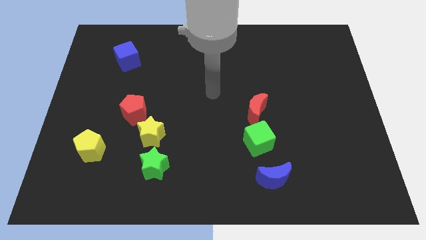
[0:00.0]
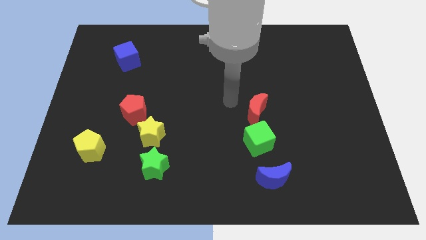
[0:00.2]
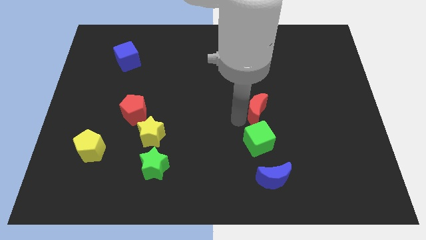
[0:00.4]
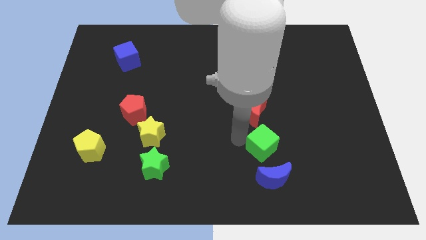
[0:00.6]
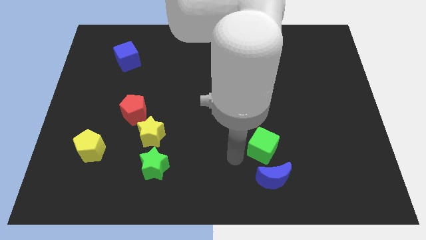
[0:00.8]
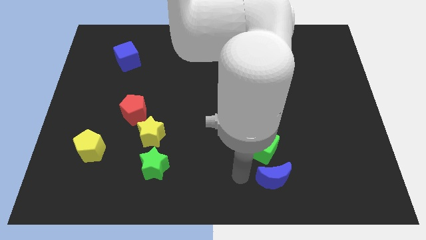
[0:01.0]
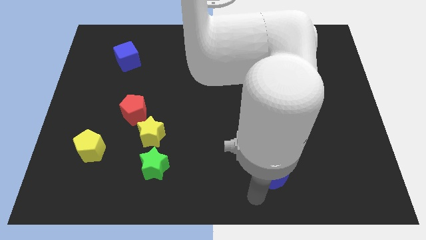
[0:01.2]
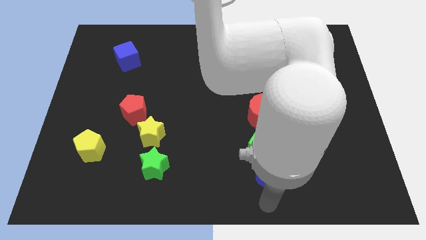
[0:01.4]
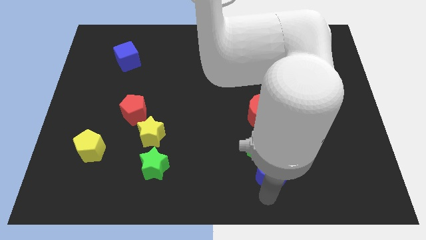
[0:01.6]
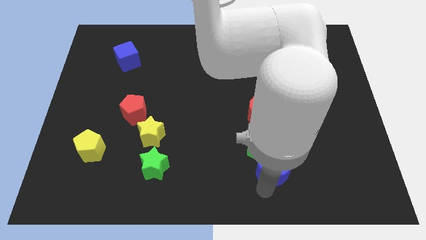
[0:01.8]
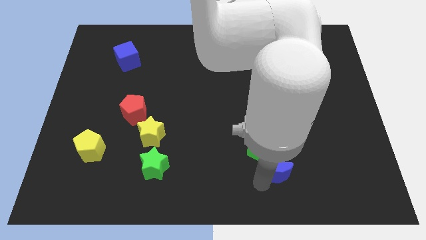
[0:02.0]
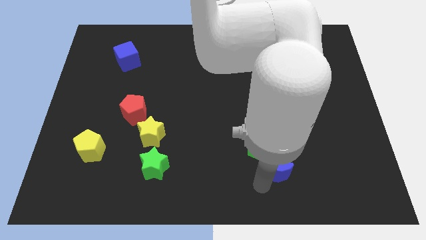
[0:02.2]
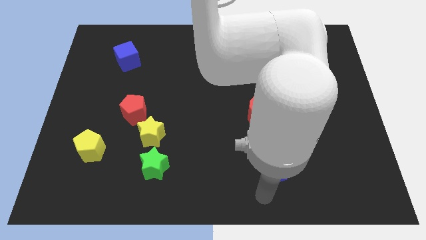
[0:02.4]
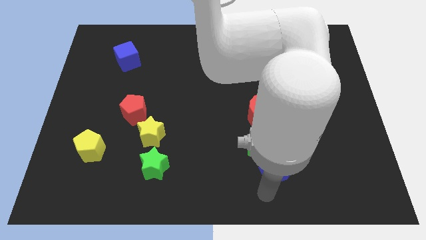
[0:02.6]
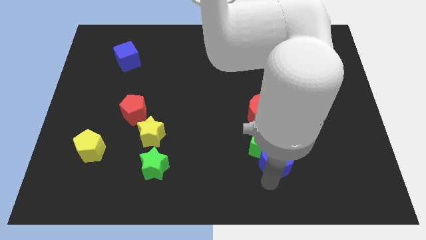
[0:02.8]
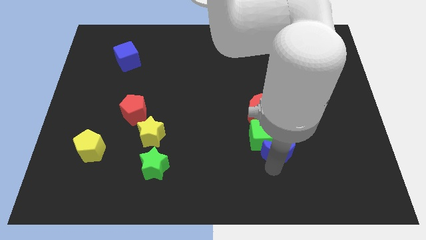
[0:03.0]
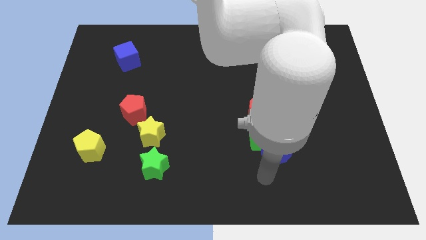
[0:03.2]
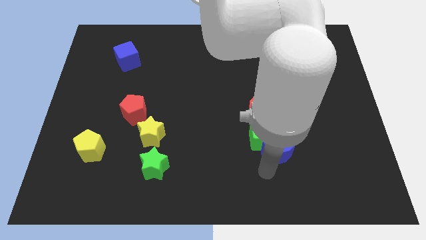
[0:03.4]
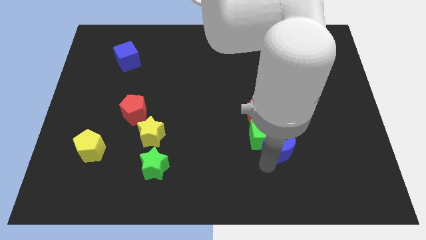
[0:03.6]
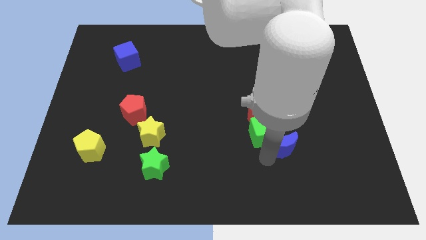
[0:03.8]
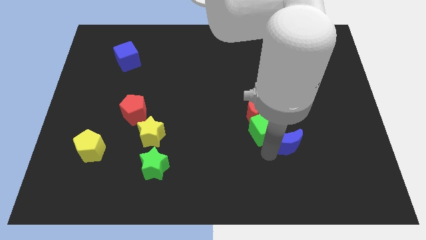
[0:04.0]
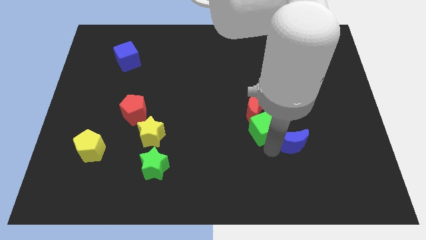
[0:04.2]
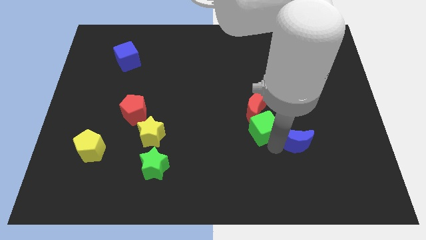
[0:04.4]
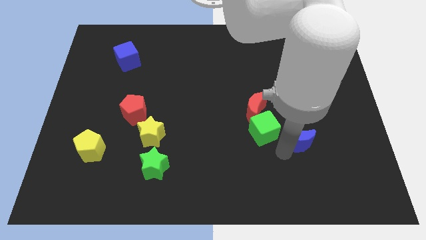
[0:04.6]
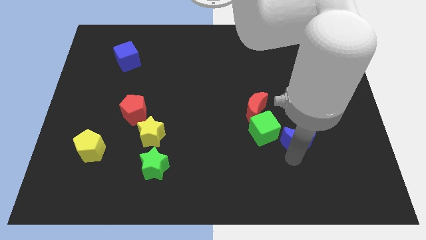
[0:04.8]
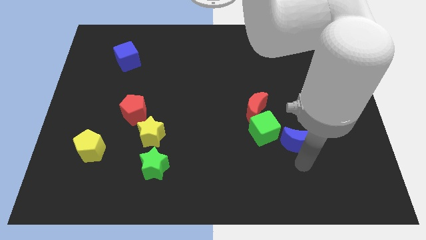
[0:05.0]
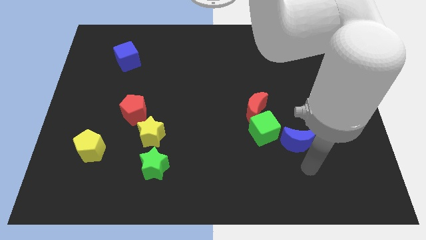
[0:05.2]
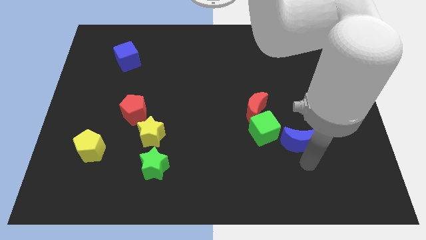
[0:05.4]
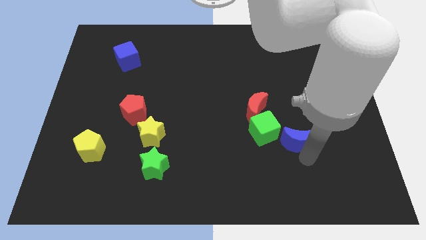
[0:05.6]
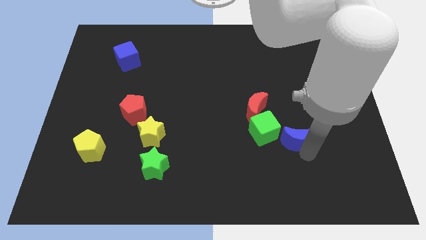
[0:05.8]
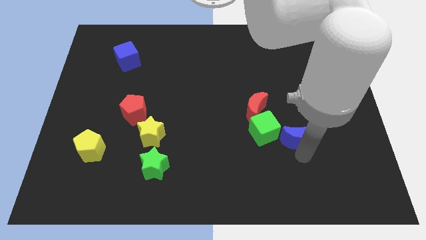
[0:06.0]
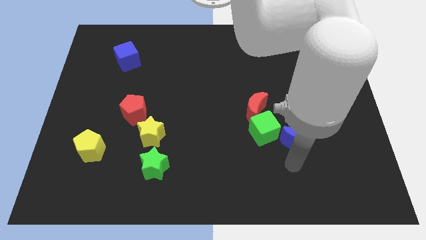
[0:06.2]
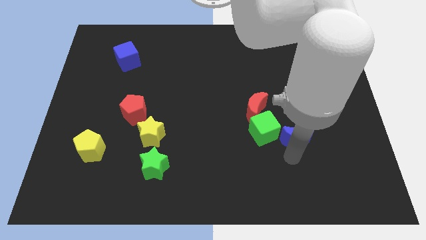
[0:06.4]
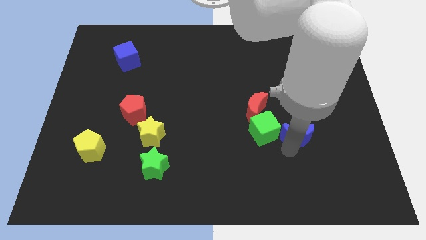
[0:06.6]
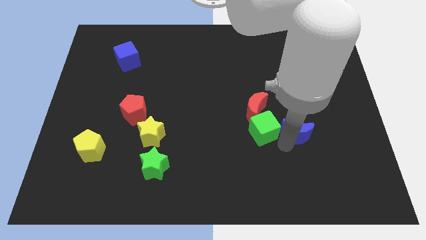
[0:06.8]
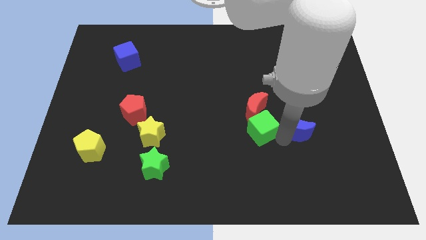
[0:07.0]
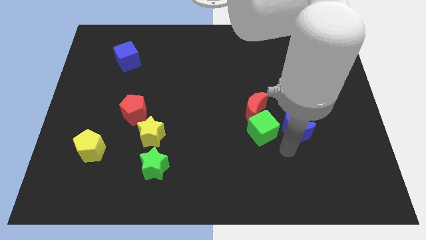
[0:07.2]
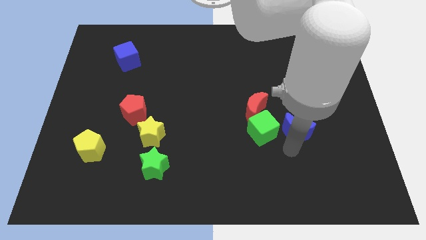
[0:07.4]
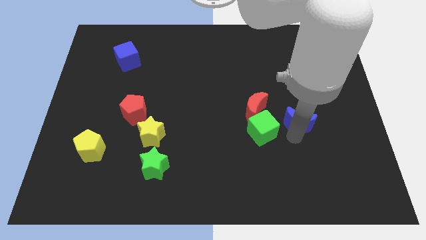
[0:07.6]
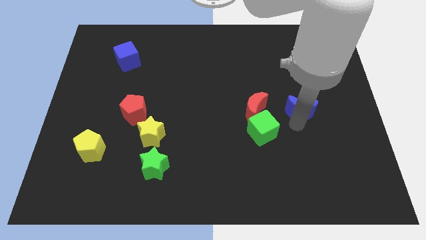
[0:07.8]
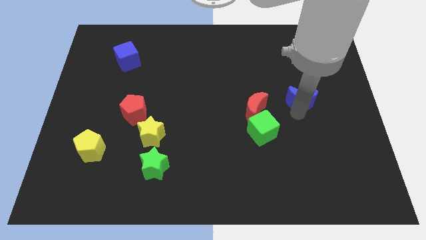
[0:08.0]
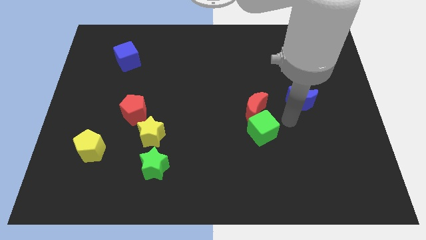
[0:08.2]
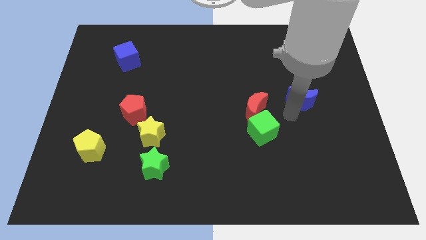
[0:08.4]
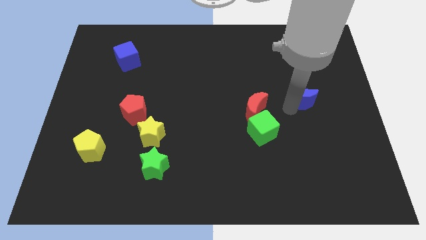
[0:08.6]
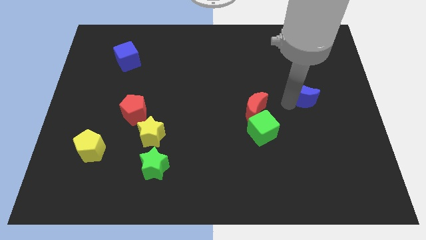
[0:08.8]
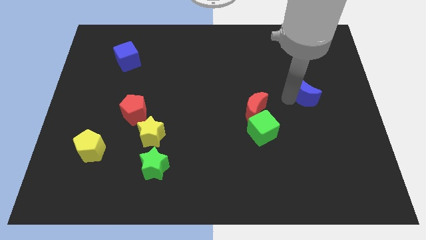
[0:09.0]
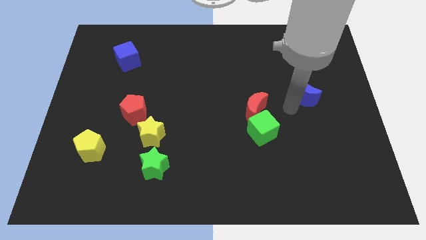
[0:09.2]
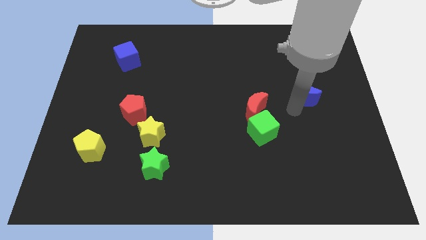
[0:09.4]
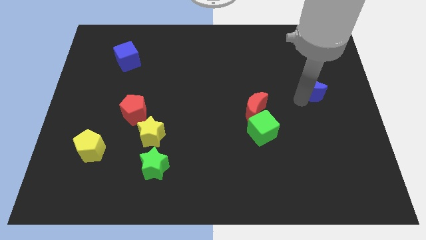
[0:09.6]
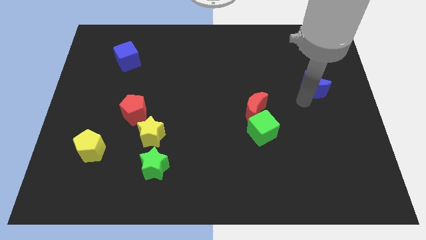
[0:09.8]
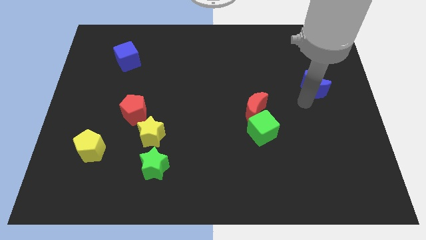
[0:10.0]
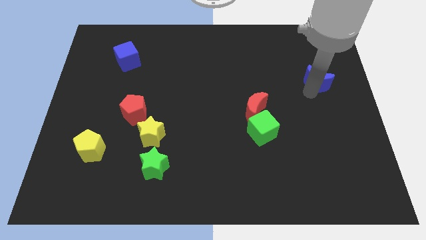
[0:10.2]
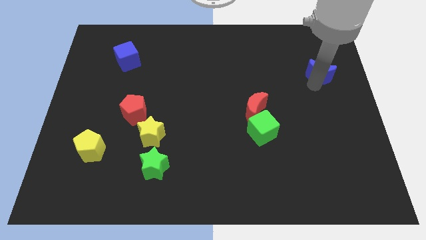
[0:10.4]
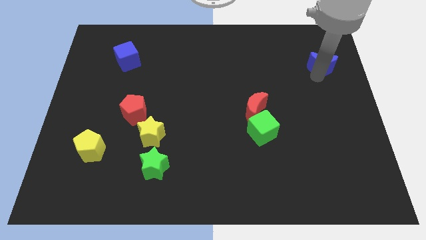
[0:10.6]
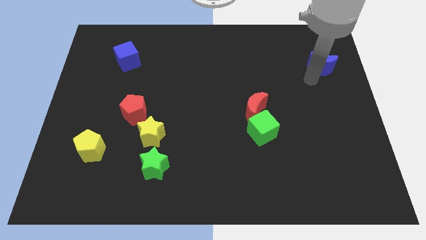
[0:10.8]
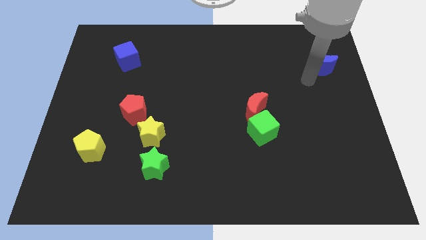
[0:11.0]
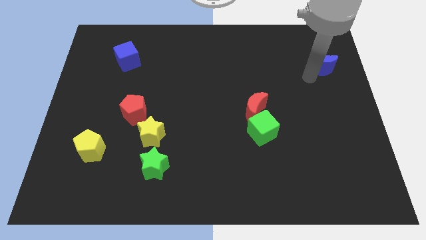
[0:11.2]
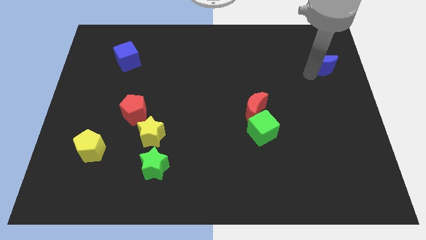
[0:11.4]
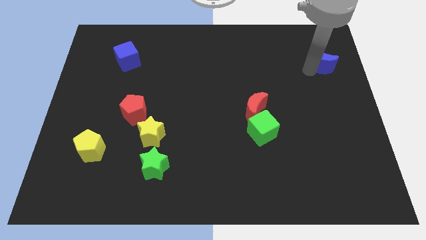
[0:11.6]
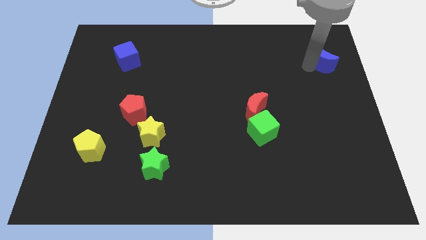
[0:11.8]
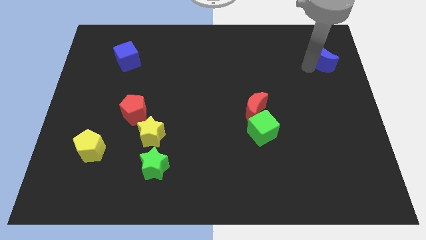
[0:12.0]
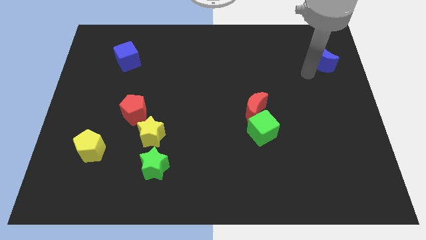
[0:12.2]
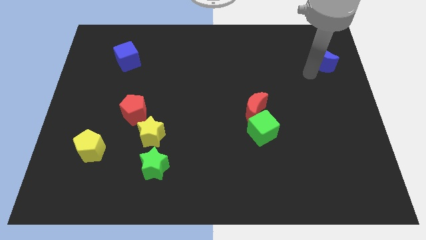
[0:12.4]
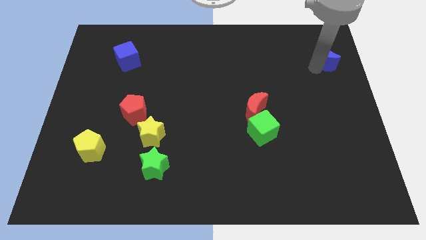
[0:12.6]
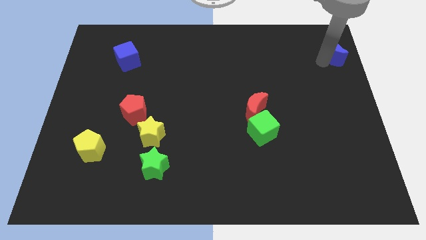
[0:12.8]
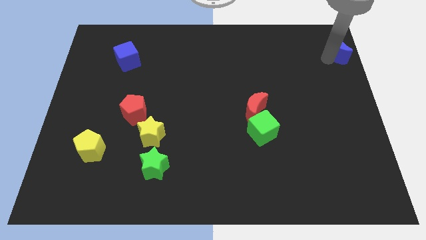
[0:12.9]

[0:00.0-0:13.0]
move the blue moon to the top right corner
